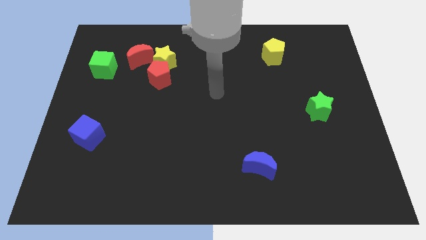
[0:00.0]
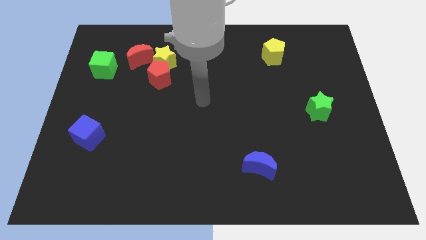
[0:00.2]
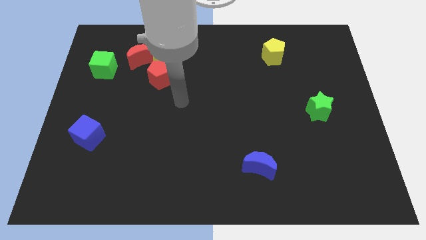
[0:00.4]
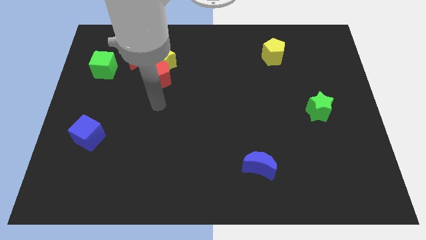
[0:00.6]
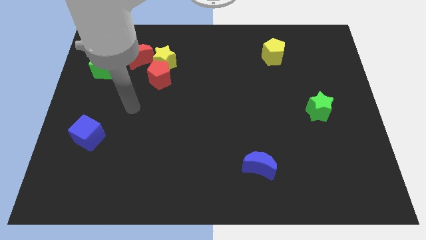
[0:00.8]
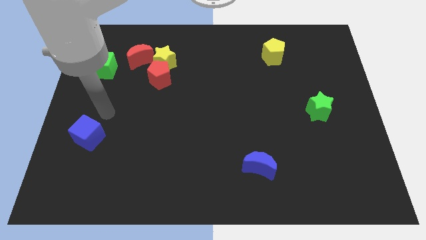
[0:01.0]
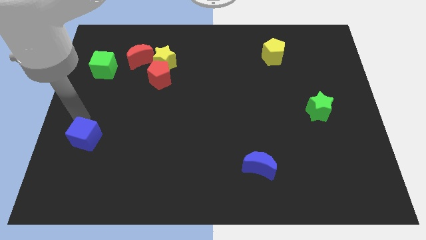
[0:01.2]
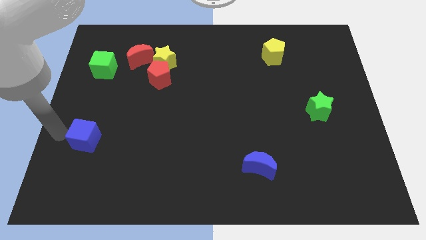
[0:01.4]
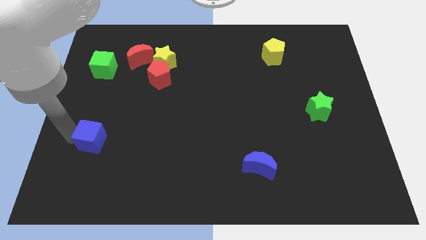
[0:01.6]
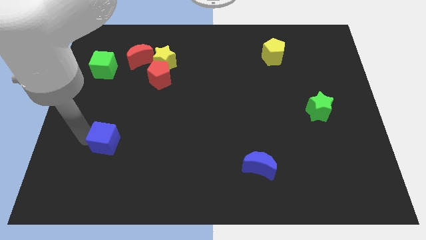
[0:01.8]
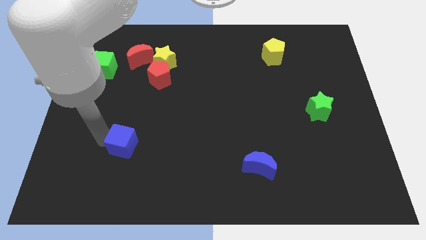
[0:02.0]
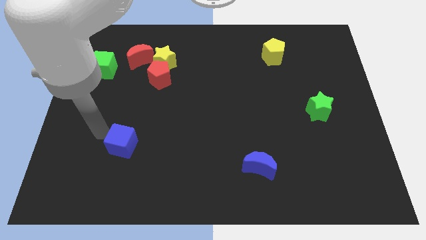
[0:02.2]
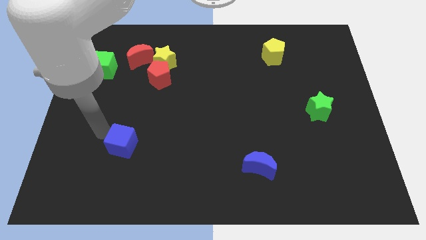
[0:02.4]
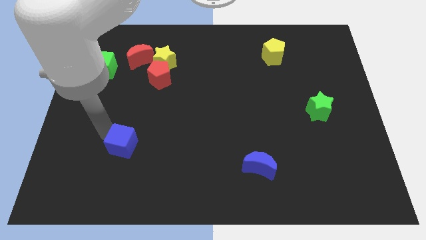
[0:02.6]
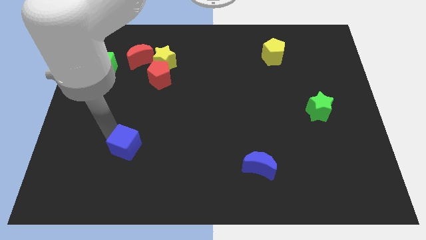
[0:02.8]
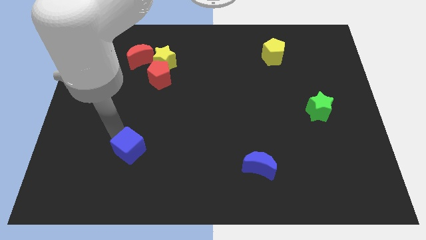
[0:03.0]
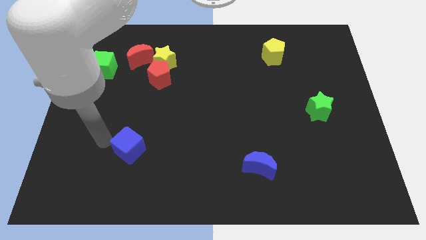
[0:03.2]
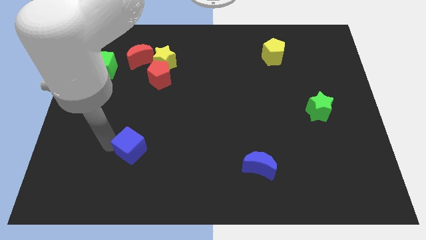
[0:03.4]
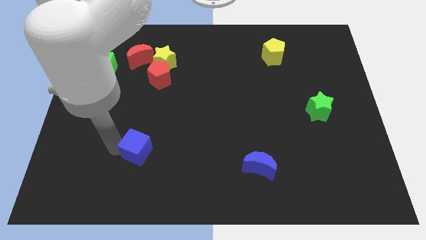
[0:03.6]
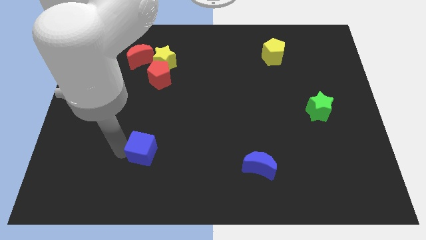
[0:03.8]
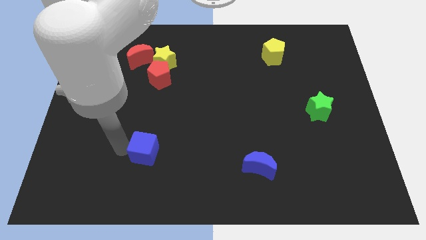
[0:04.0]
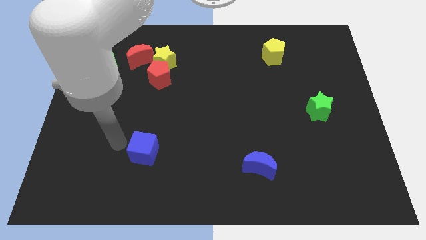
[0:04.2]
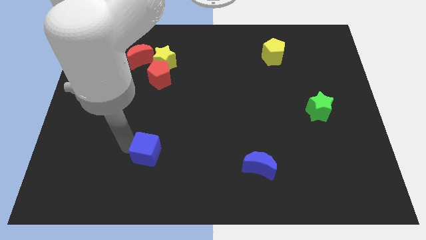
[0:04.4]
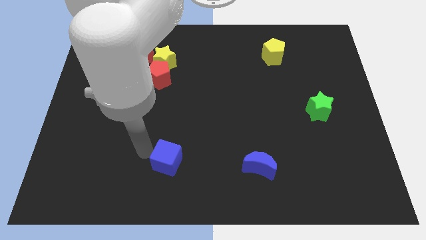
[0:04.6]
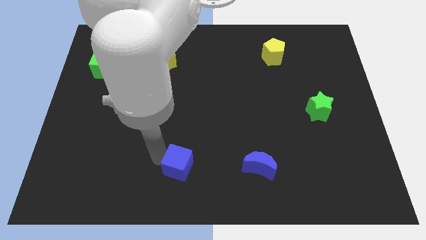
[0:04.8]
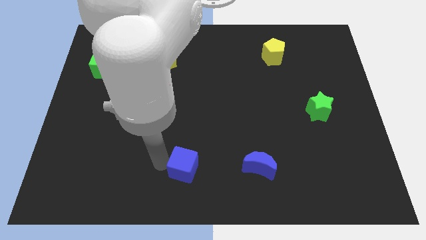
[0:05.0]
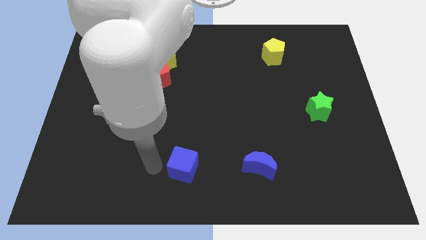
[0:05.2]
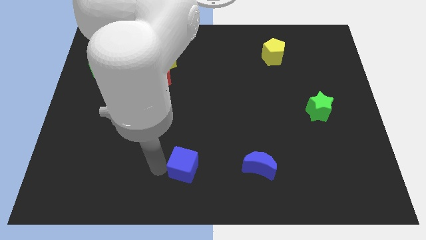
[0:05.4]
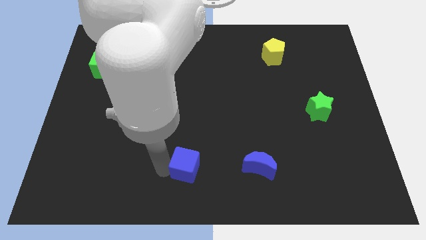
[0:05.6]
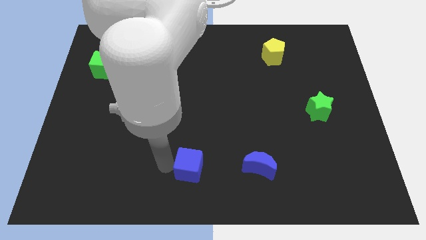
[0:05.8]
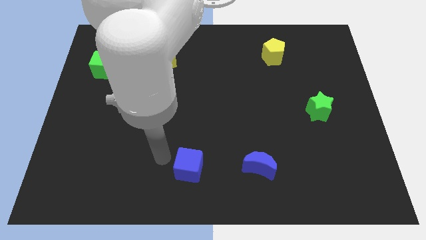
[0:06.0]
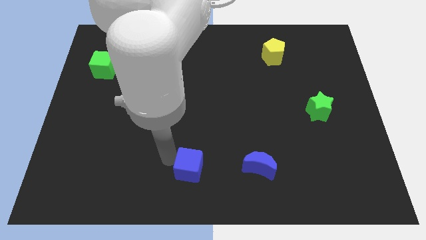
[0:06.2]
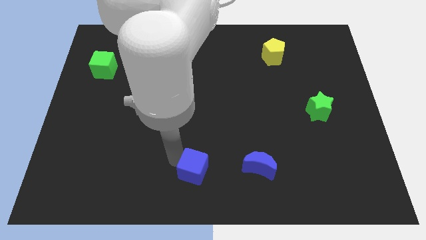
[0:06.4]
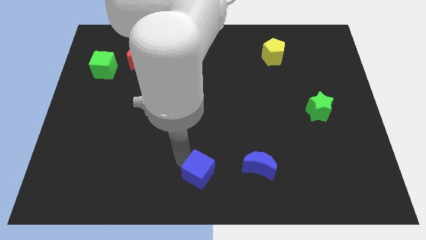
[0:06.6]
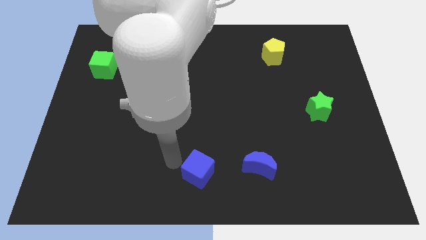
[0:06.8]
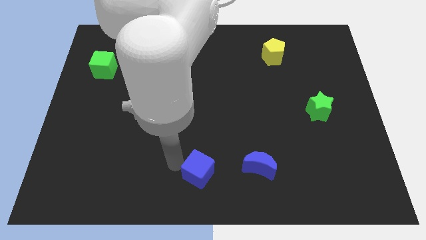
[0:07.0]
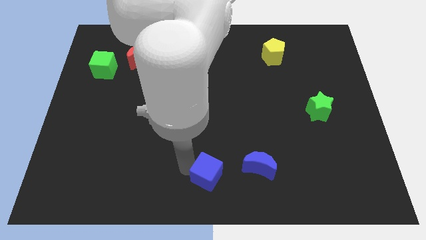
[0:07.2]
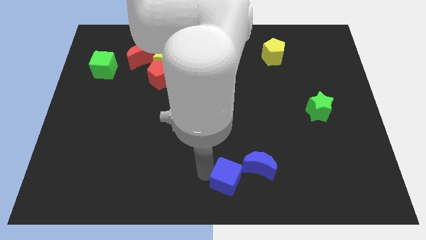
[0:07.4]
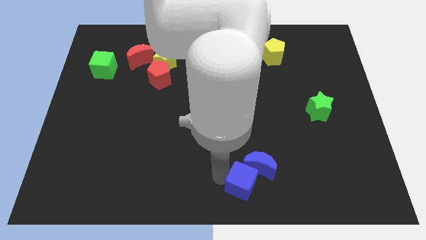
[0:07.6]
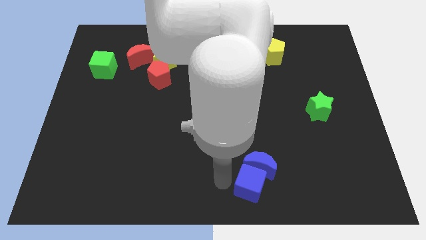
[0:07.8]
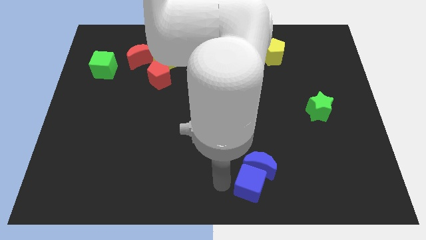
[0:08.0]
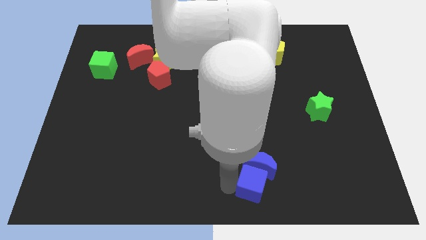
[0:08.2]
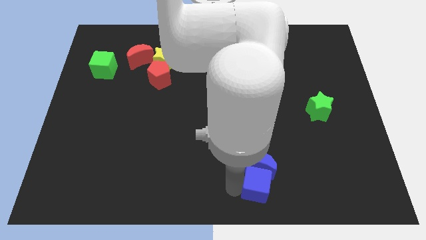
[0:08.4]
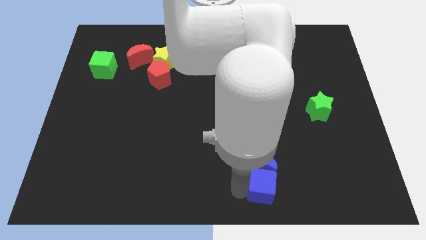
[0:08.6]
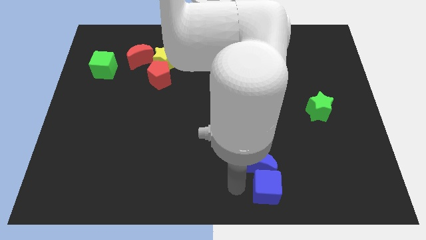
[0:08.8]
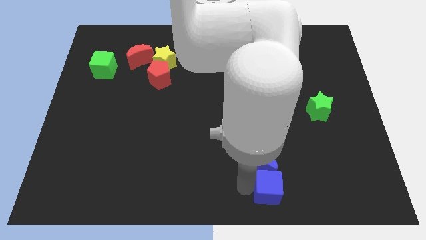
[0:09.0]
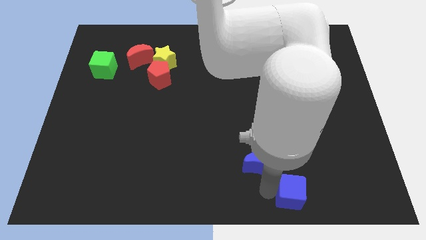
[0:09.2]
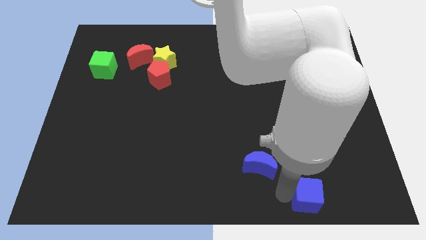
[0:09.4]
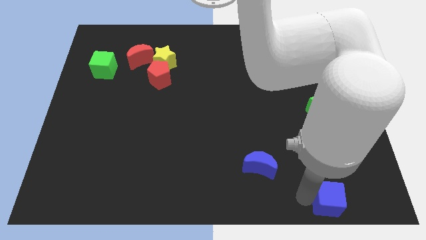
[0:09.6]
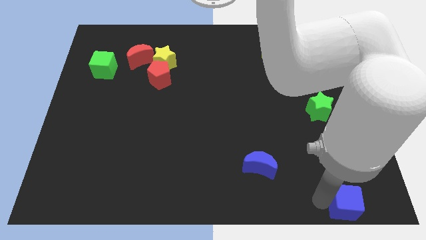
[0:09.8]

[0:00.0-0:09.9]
push the blue cube to the bottom right of the board
